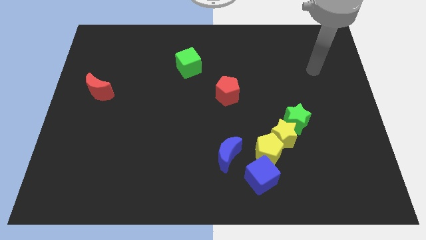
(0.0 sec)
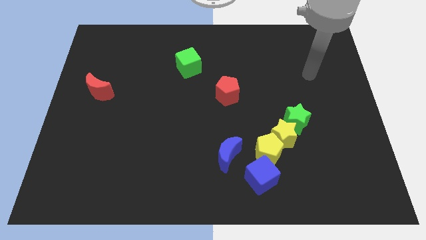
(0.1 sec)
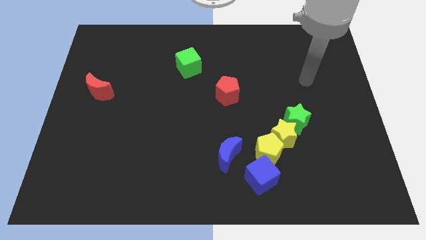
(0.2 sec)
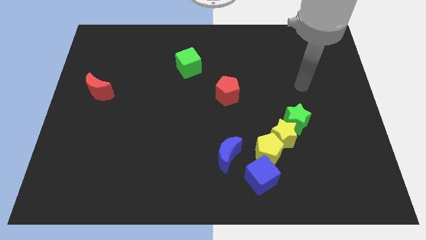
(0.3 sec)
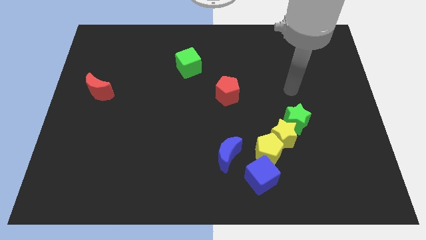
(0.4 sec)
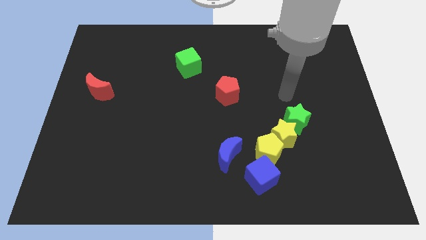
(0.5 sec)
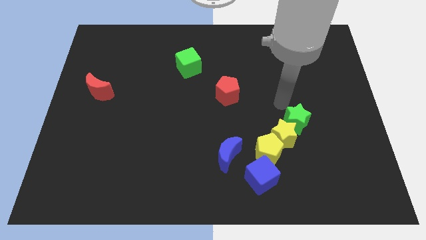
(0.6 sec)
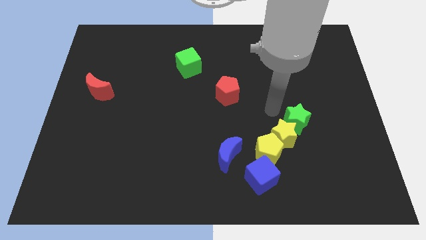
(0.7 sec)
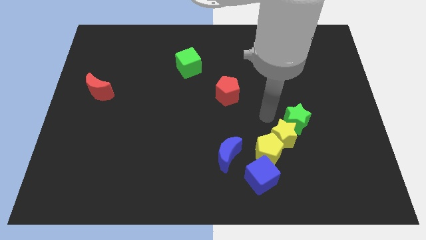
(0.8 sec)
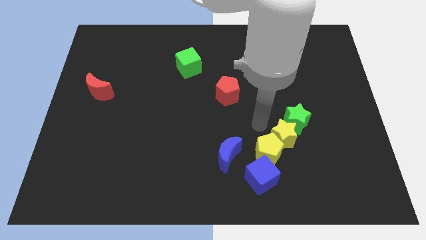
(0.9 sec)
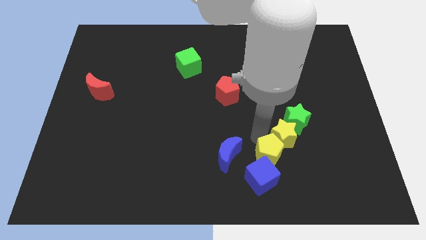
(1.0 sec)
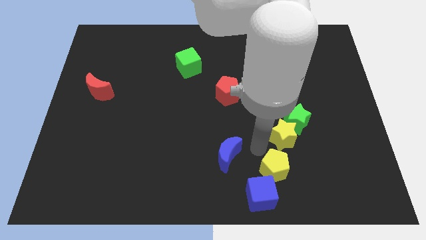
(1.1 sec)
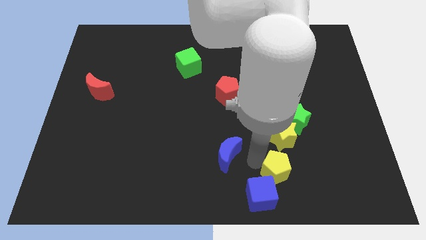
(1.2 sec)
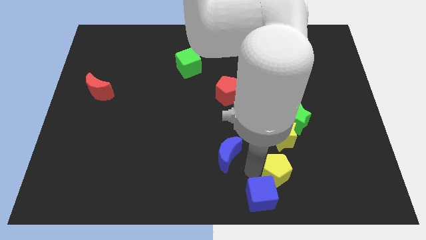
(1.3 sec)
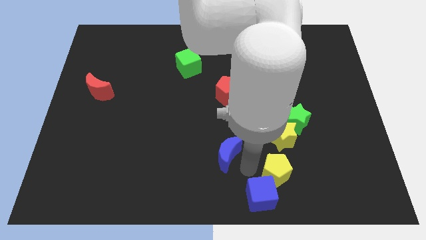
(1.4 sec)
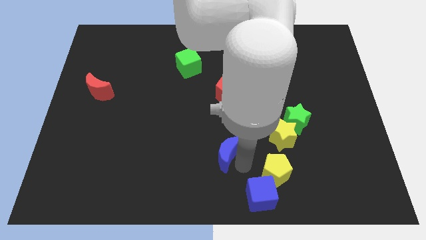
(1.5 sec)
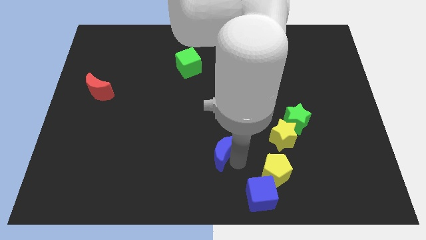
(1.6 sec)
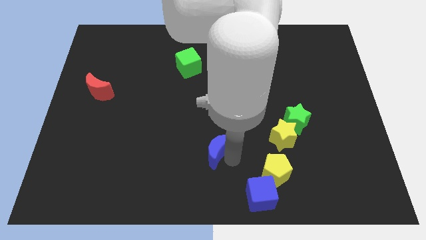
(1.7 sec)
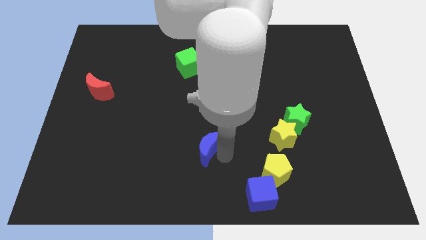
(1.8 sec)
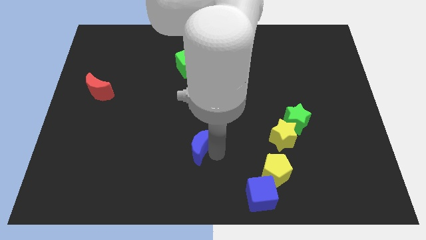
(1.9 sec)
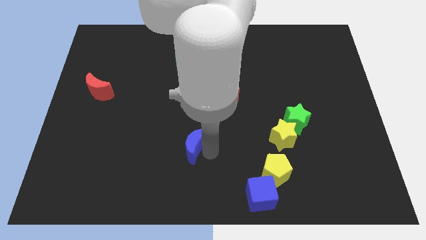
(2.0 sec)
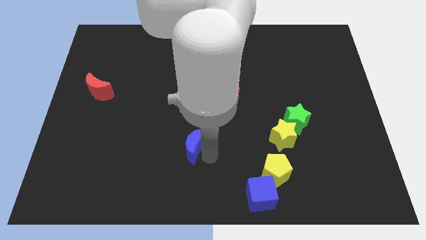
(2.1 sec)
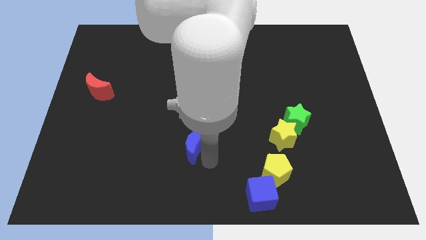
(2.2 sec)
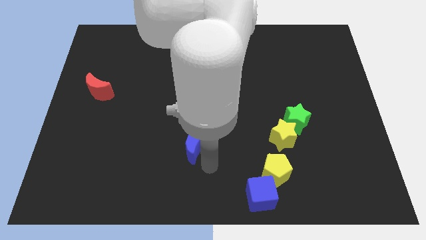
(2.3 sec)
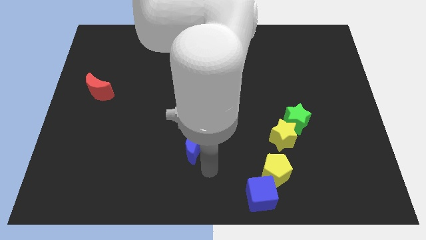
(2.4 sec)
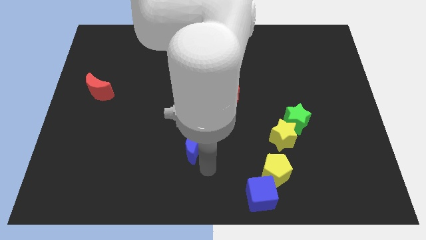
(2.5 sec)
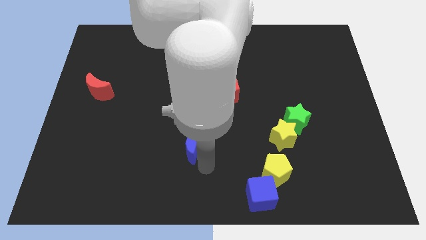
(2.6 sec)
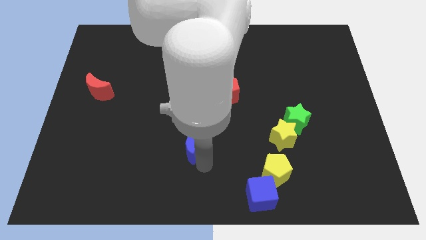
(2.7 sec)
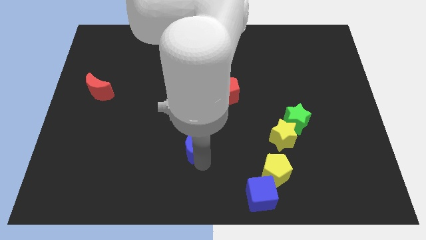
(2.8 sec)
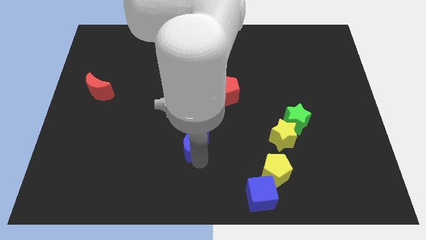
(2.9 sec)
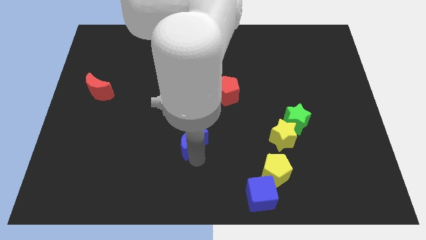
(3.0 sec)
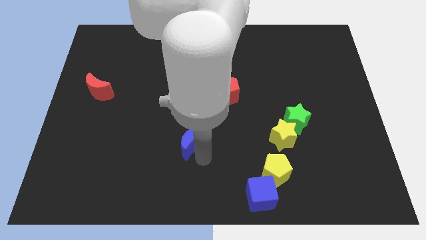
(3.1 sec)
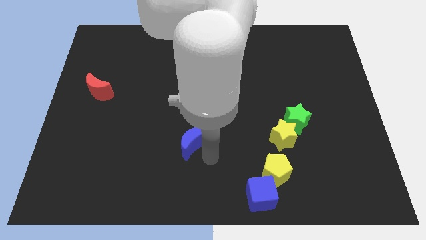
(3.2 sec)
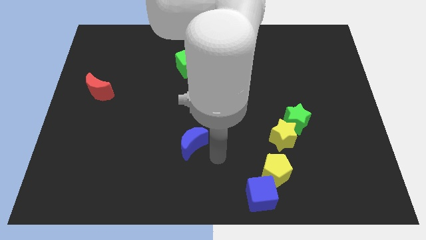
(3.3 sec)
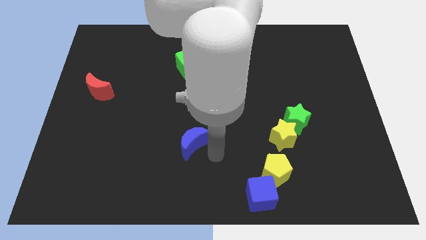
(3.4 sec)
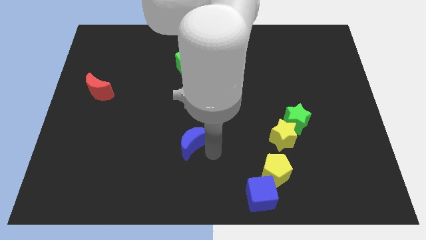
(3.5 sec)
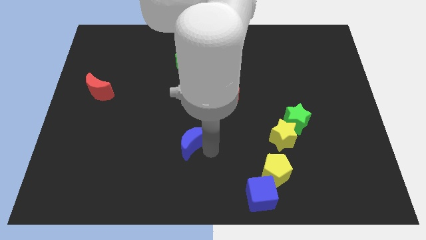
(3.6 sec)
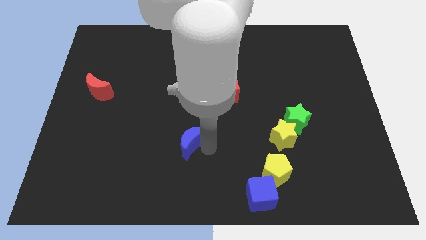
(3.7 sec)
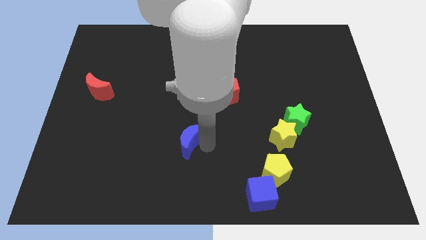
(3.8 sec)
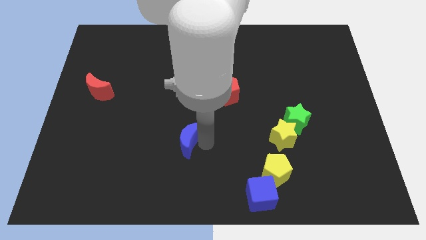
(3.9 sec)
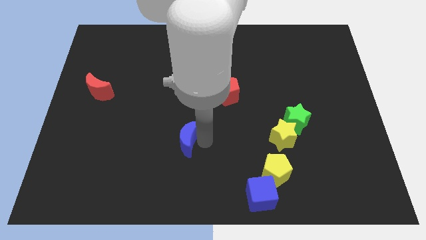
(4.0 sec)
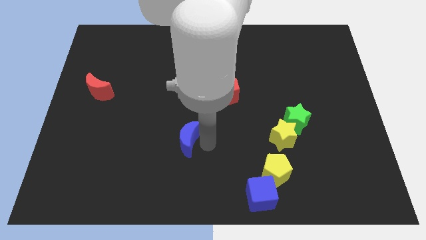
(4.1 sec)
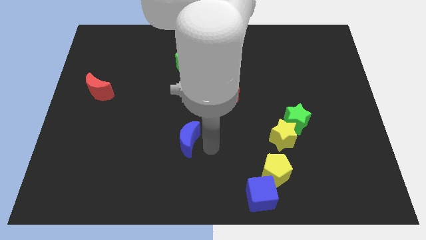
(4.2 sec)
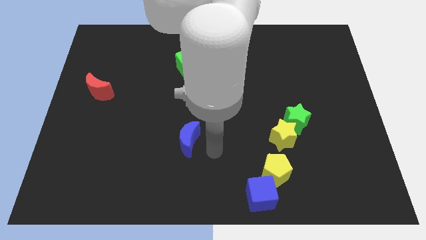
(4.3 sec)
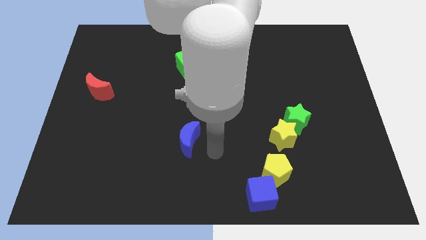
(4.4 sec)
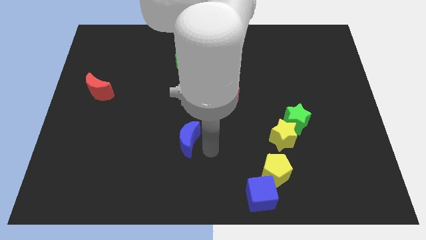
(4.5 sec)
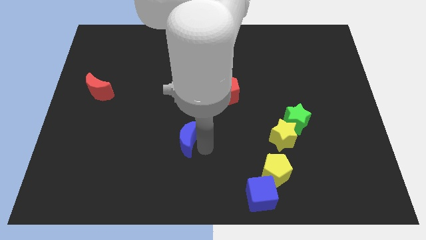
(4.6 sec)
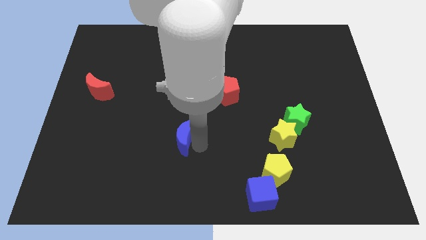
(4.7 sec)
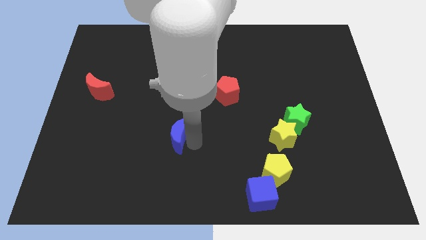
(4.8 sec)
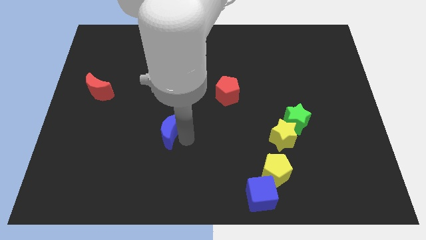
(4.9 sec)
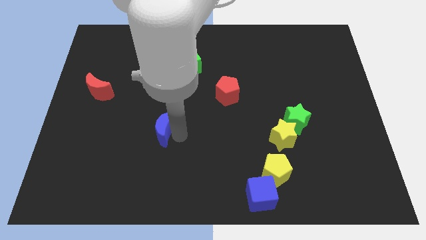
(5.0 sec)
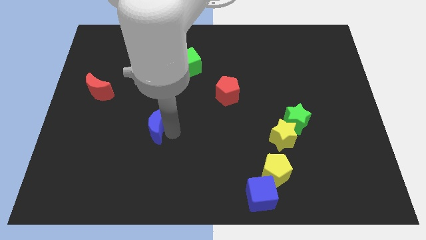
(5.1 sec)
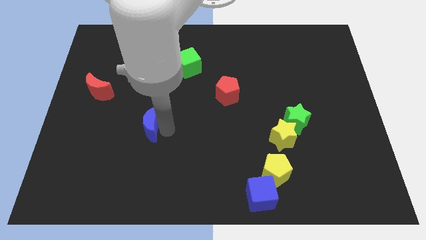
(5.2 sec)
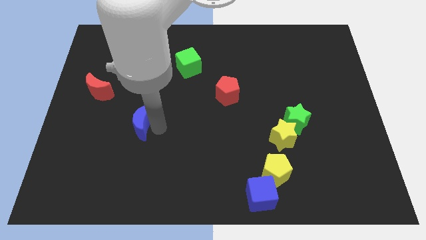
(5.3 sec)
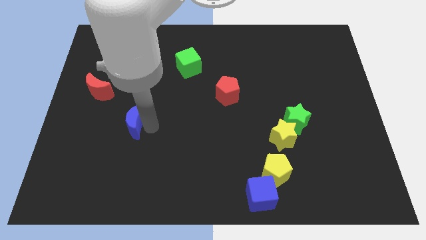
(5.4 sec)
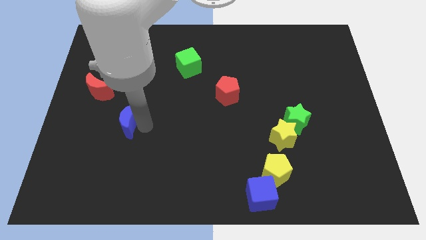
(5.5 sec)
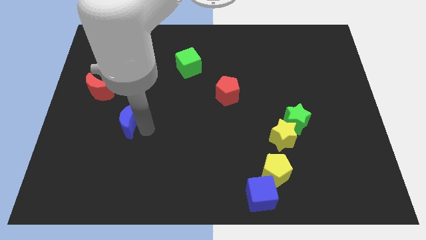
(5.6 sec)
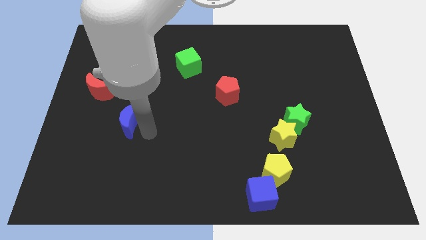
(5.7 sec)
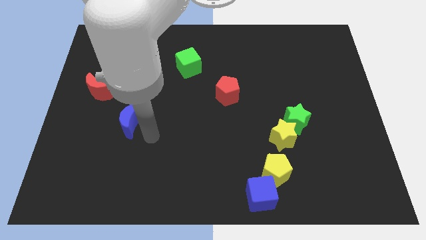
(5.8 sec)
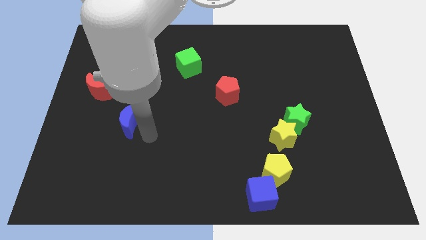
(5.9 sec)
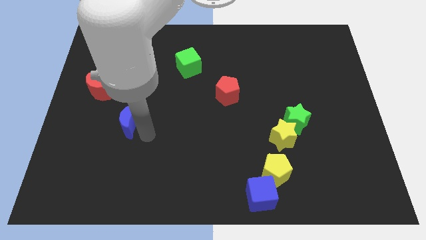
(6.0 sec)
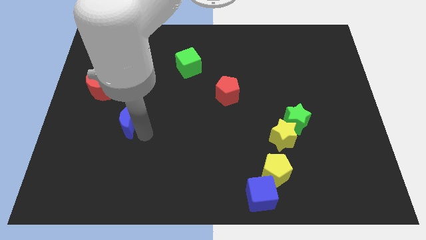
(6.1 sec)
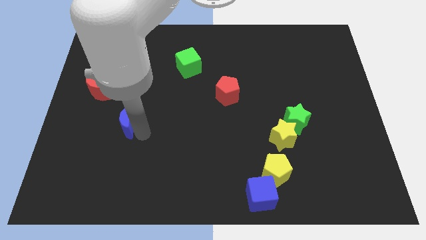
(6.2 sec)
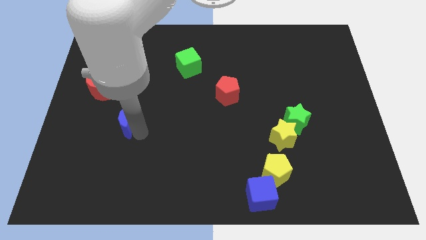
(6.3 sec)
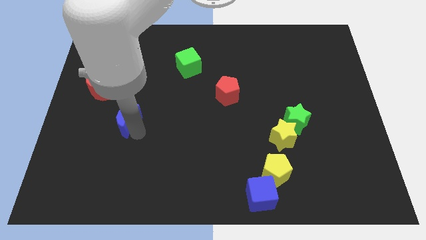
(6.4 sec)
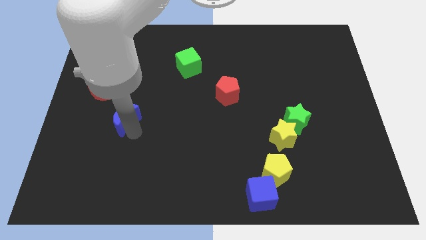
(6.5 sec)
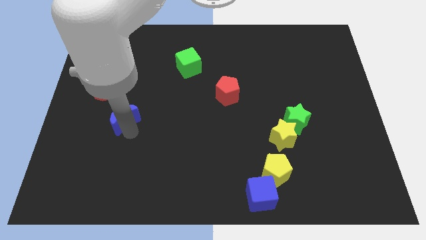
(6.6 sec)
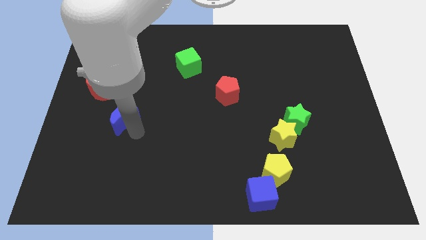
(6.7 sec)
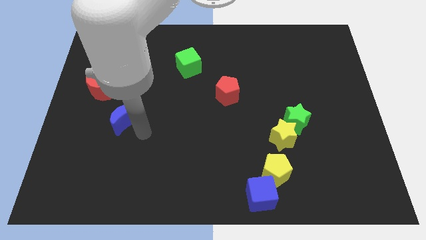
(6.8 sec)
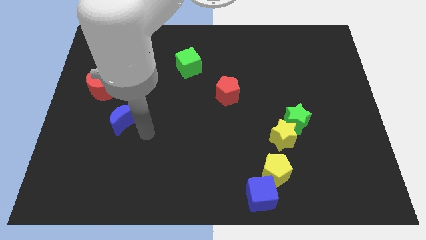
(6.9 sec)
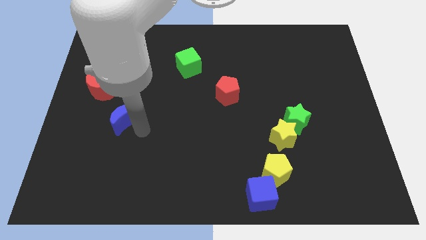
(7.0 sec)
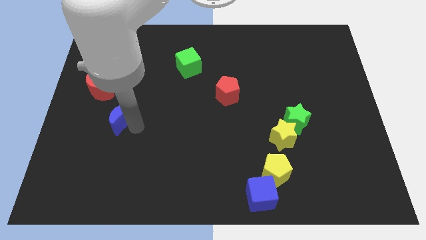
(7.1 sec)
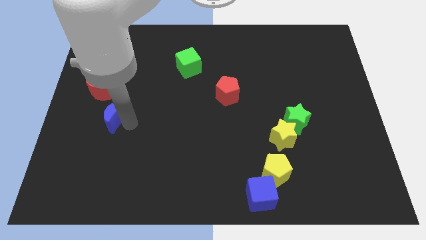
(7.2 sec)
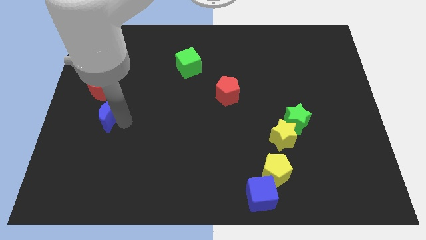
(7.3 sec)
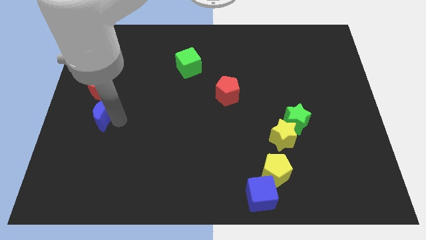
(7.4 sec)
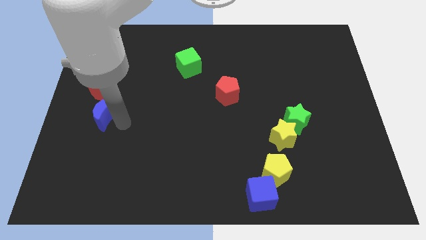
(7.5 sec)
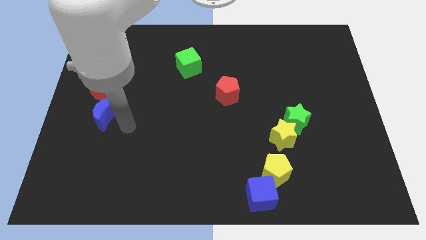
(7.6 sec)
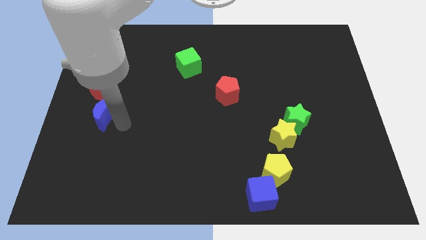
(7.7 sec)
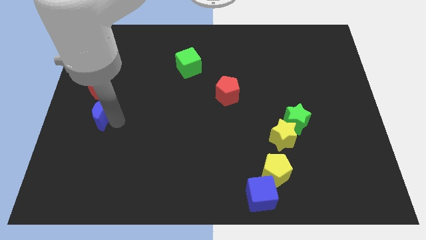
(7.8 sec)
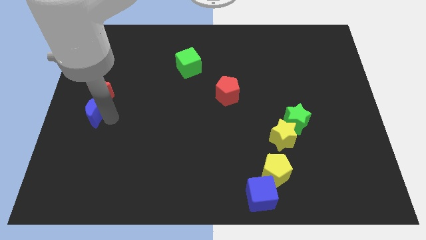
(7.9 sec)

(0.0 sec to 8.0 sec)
move the blue moon to the center left
